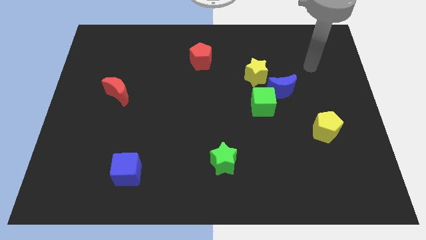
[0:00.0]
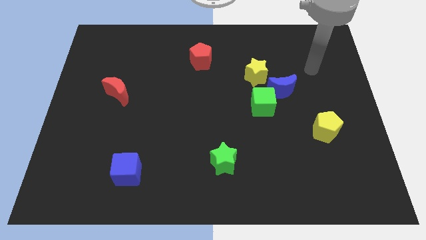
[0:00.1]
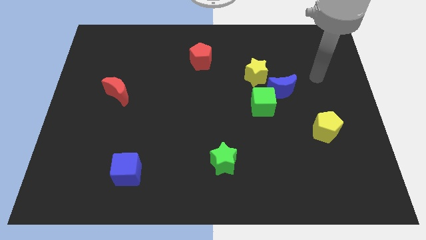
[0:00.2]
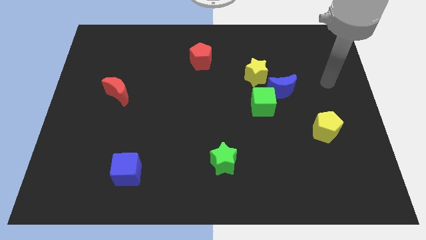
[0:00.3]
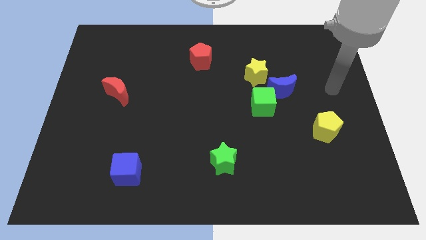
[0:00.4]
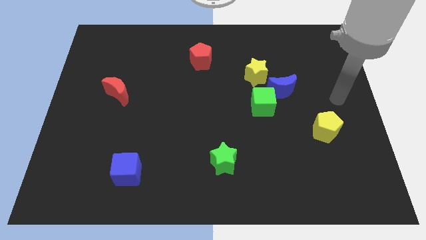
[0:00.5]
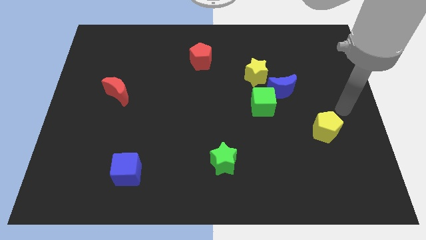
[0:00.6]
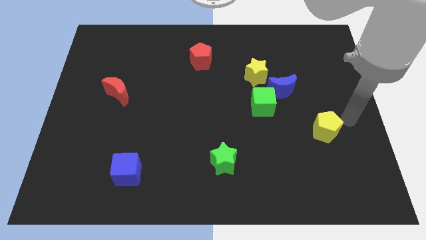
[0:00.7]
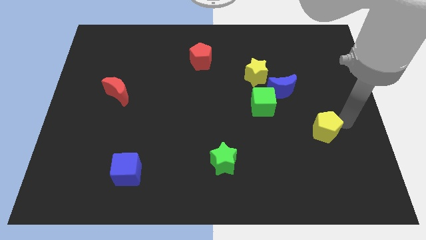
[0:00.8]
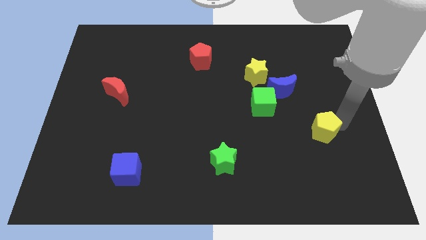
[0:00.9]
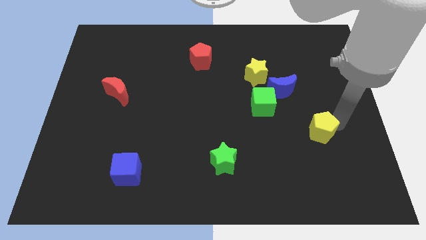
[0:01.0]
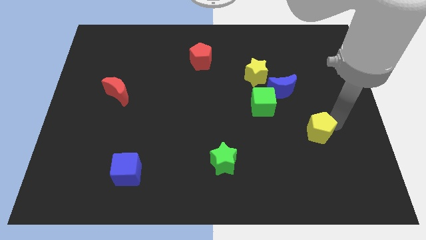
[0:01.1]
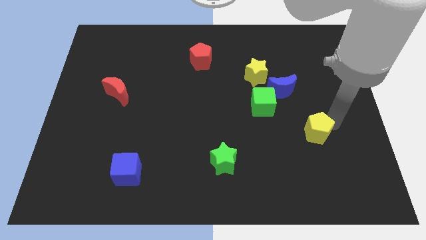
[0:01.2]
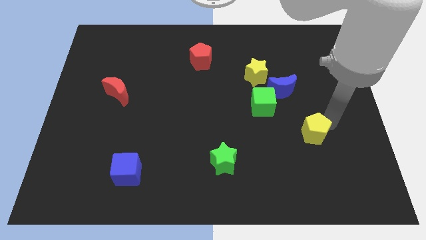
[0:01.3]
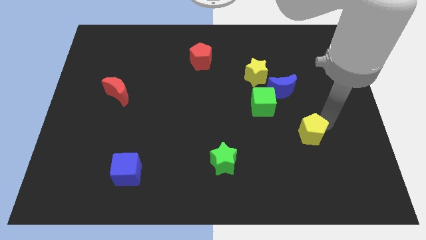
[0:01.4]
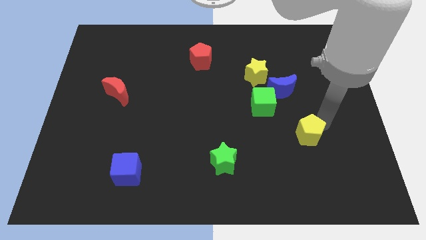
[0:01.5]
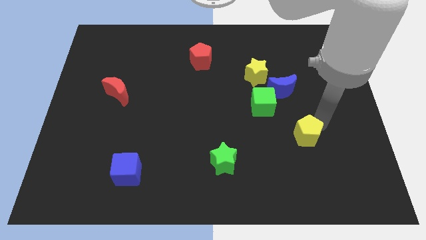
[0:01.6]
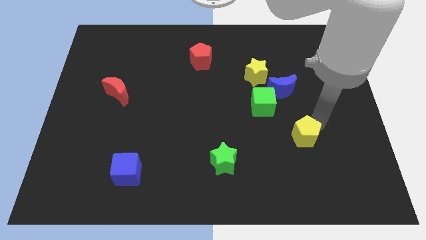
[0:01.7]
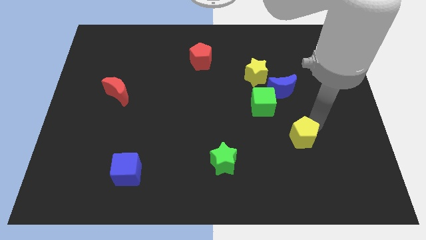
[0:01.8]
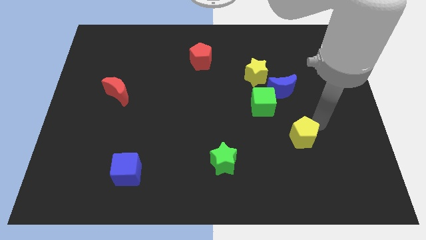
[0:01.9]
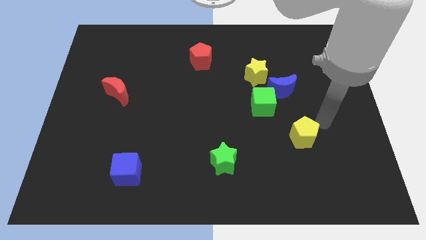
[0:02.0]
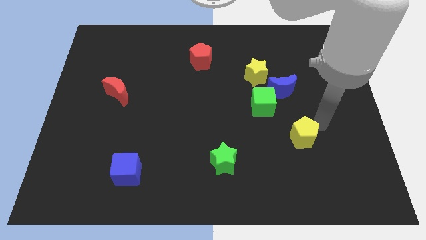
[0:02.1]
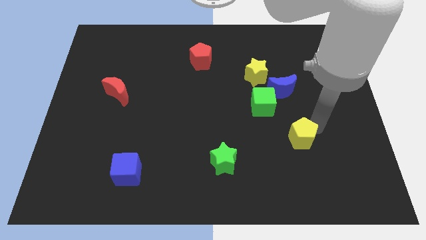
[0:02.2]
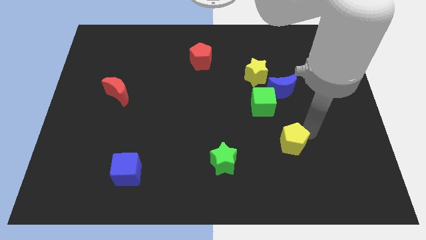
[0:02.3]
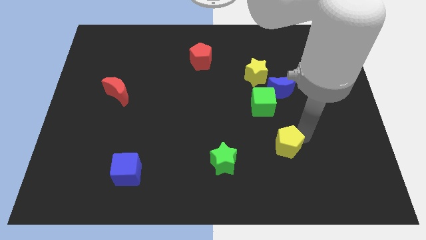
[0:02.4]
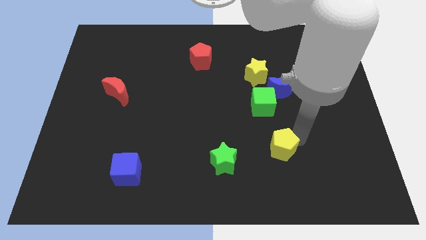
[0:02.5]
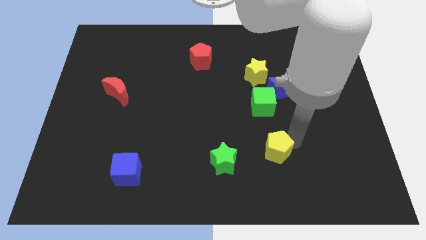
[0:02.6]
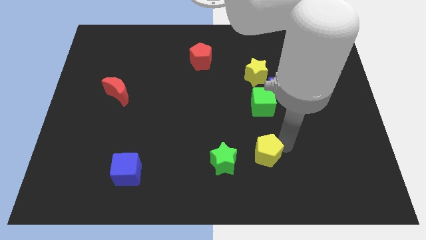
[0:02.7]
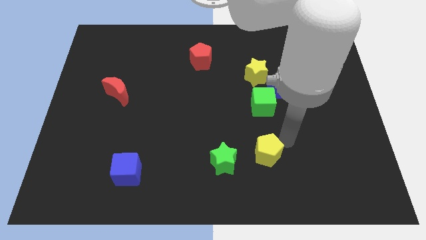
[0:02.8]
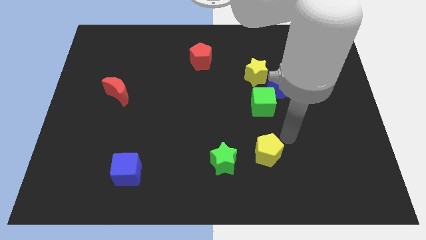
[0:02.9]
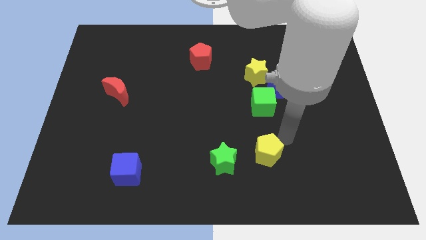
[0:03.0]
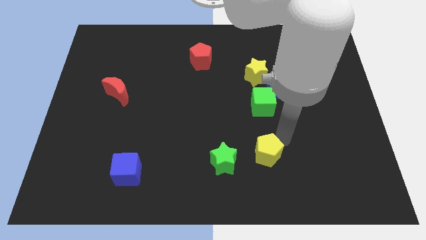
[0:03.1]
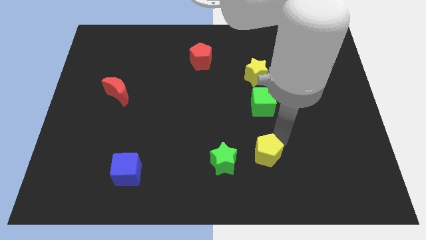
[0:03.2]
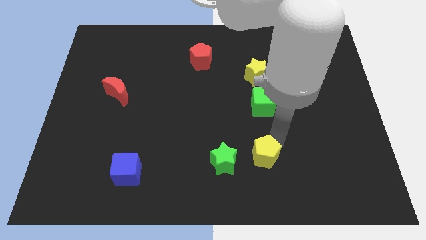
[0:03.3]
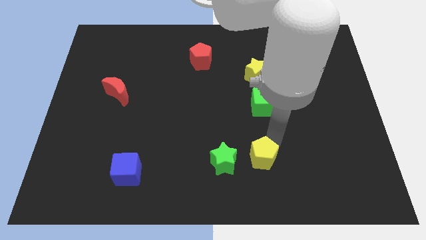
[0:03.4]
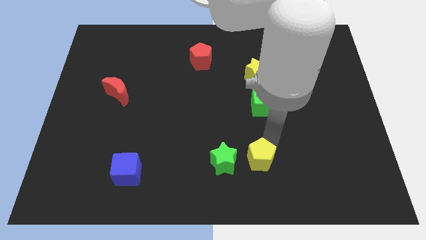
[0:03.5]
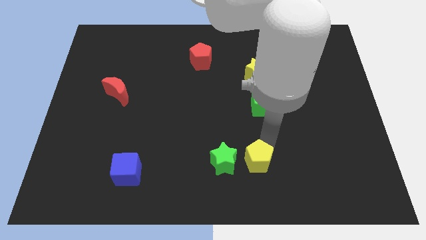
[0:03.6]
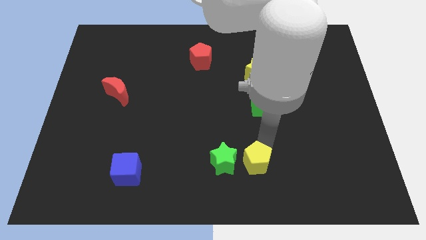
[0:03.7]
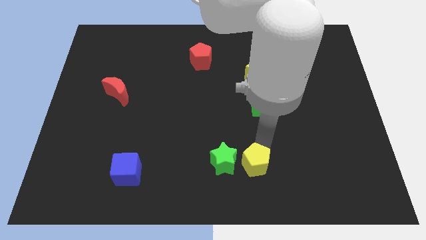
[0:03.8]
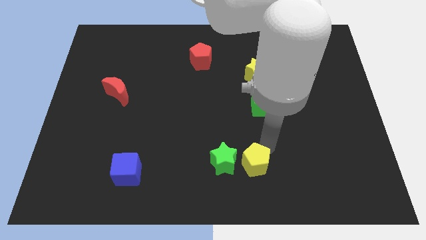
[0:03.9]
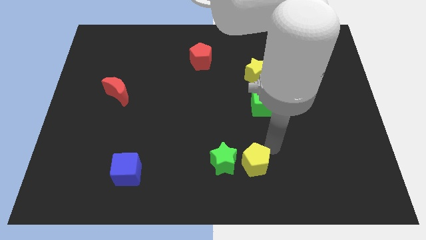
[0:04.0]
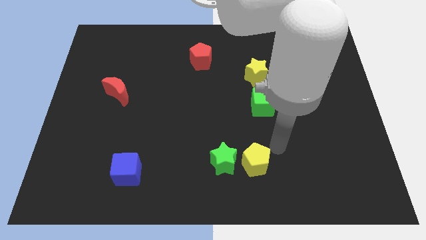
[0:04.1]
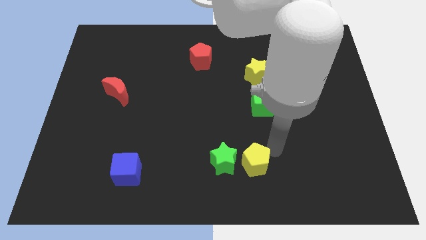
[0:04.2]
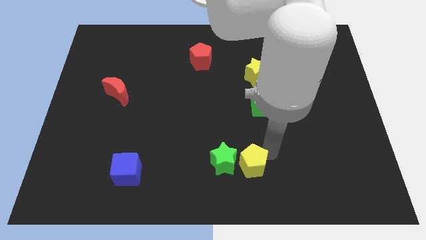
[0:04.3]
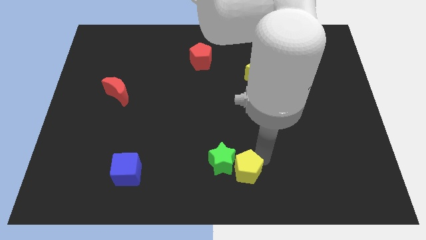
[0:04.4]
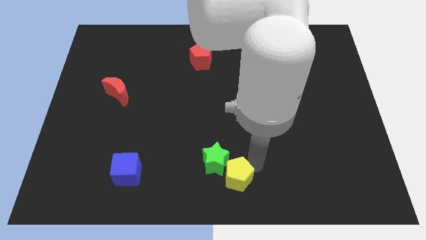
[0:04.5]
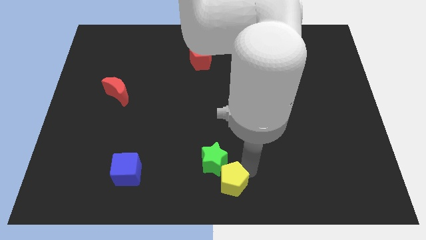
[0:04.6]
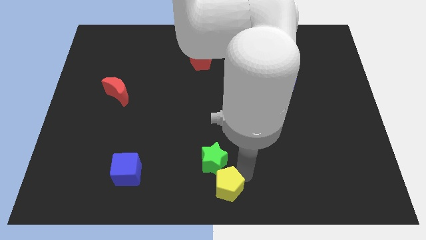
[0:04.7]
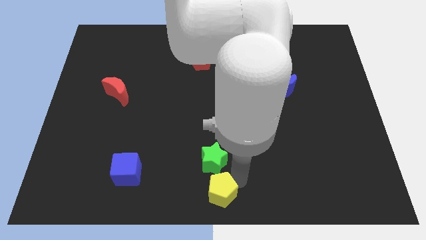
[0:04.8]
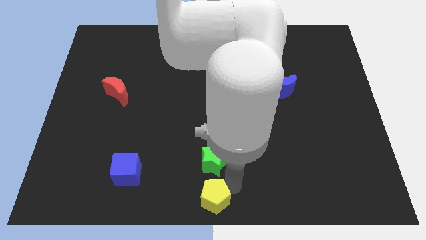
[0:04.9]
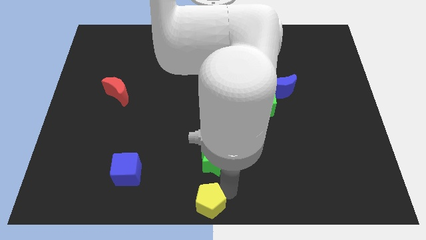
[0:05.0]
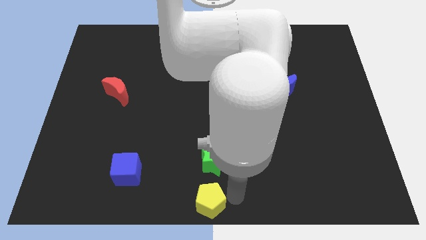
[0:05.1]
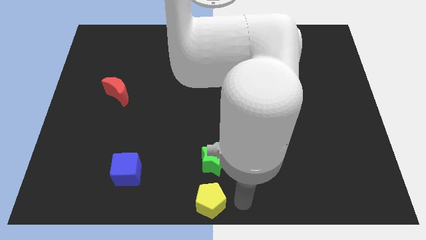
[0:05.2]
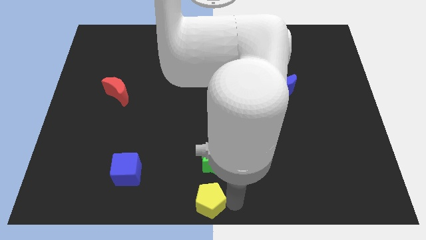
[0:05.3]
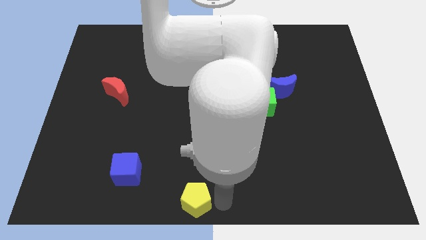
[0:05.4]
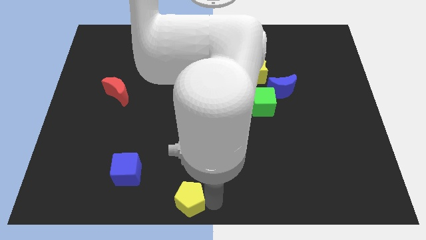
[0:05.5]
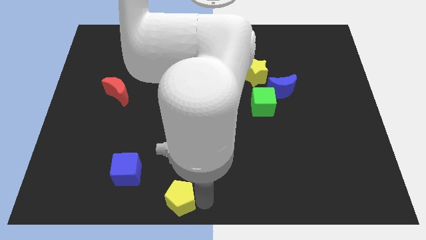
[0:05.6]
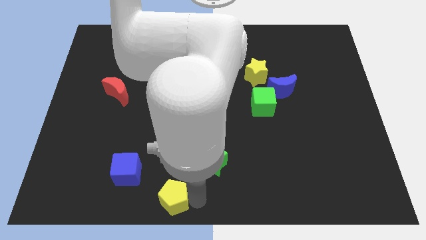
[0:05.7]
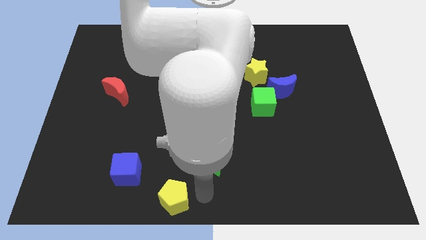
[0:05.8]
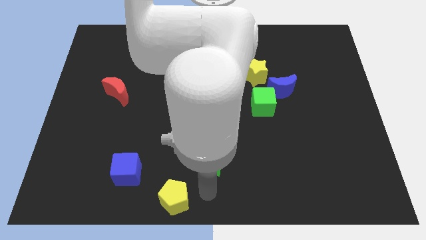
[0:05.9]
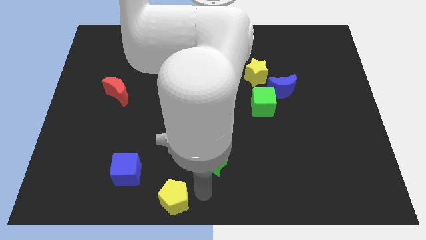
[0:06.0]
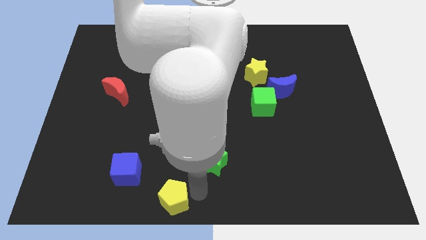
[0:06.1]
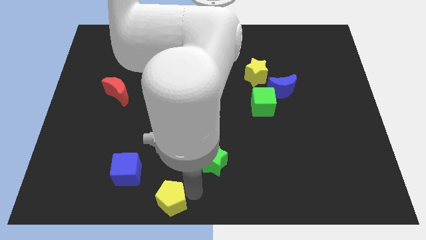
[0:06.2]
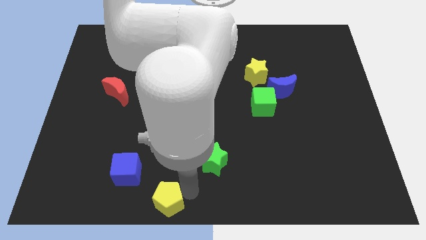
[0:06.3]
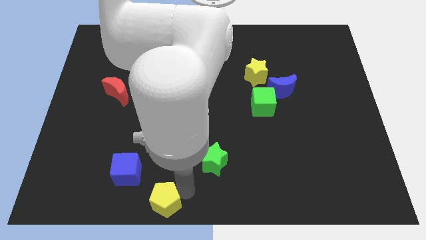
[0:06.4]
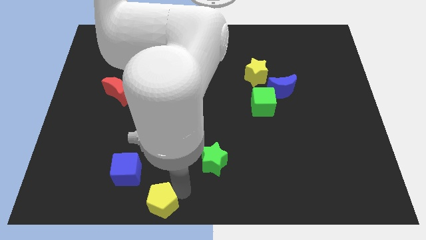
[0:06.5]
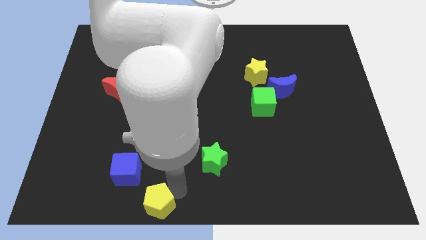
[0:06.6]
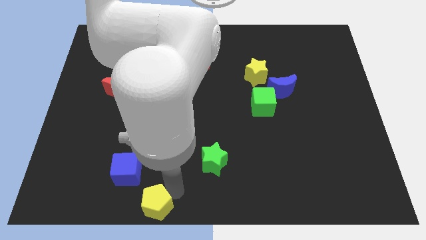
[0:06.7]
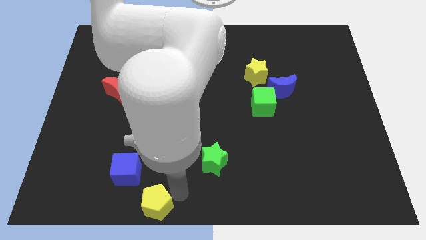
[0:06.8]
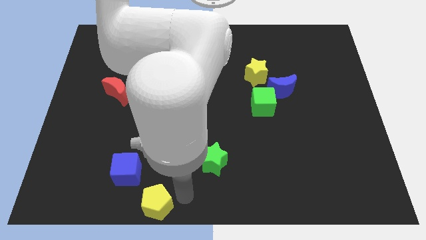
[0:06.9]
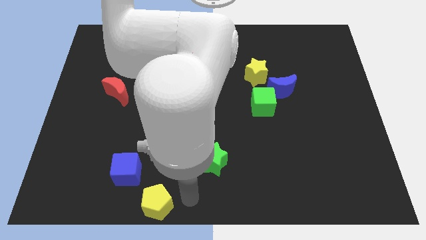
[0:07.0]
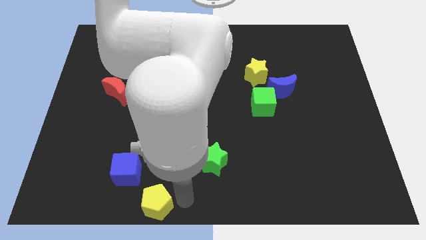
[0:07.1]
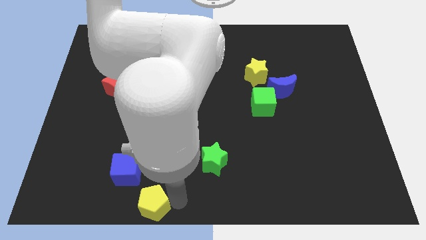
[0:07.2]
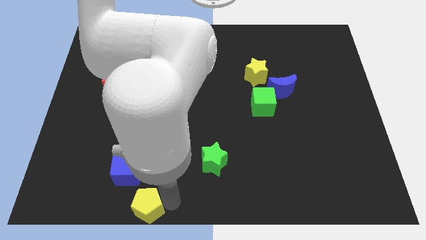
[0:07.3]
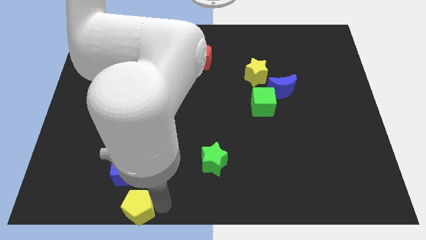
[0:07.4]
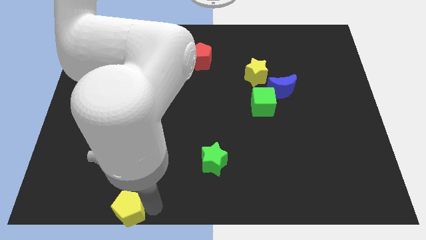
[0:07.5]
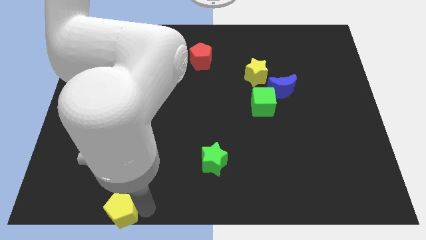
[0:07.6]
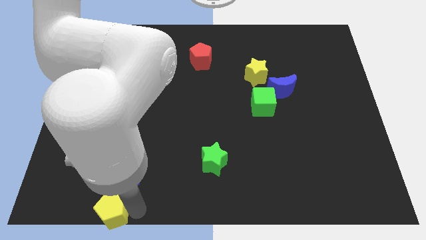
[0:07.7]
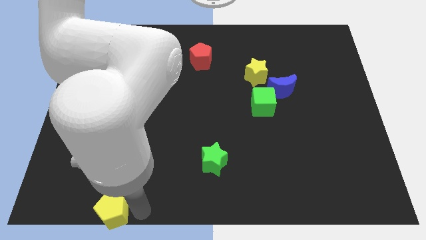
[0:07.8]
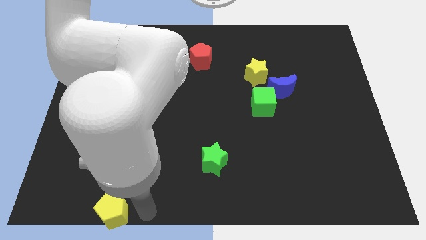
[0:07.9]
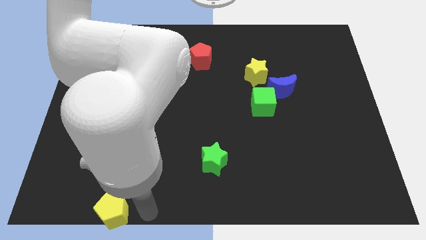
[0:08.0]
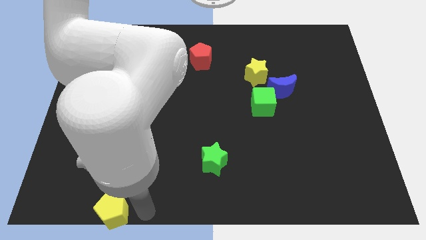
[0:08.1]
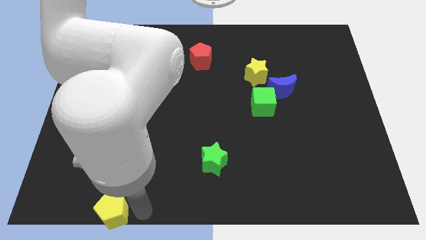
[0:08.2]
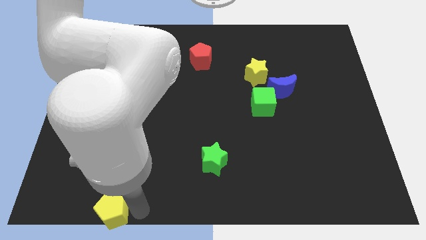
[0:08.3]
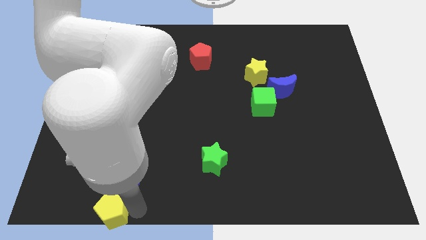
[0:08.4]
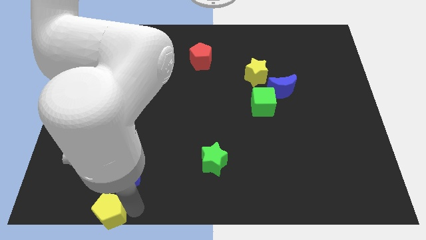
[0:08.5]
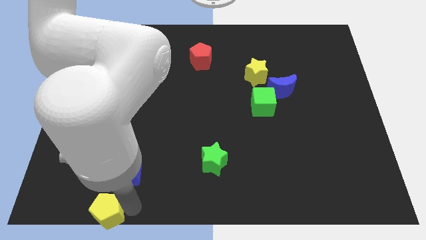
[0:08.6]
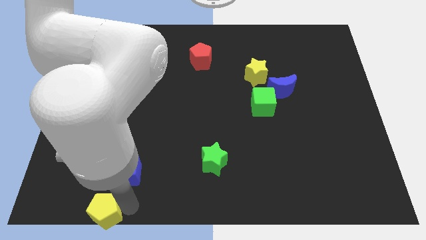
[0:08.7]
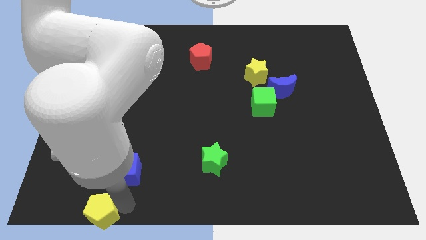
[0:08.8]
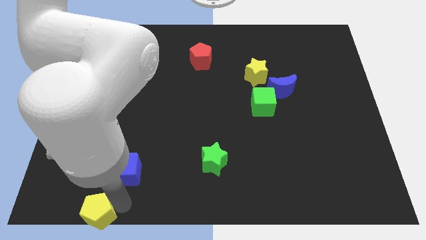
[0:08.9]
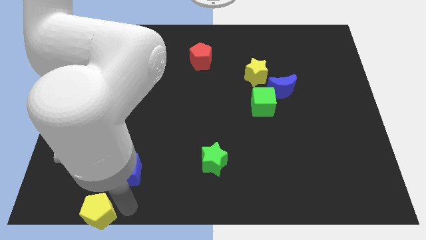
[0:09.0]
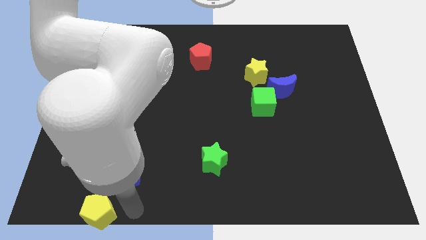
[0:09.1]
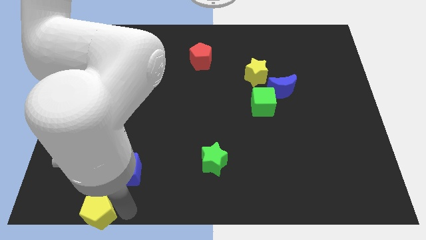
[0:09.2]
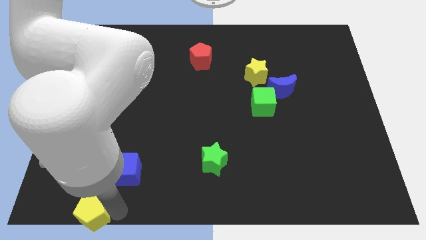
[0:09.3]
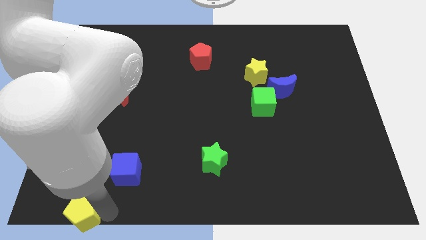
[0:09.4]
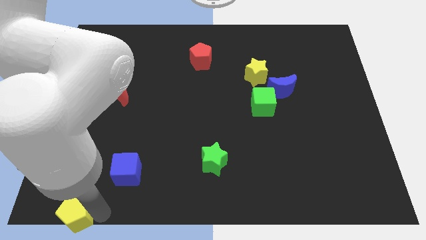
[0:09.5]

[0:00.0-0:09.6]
push the yellow pentagon to the bottom left
